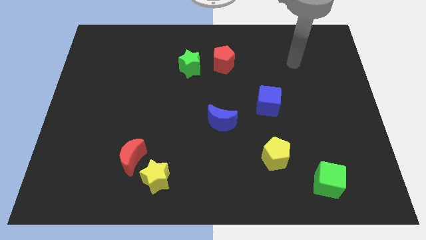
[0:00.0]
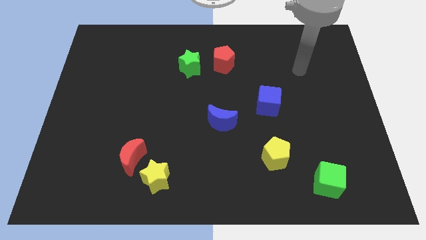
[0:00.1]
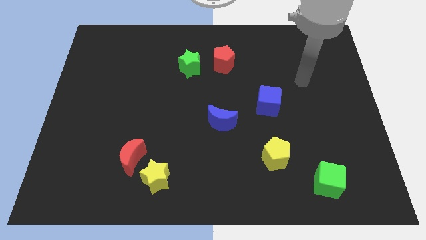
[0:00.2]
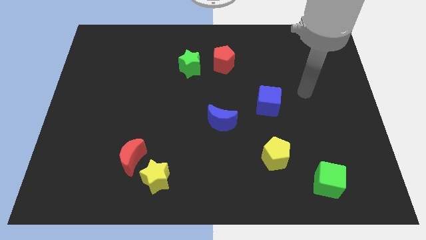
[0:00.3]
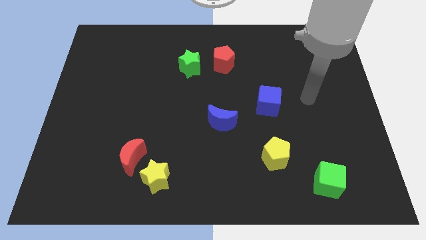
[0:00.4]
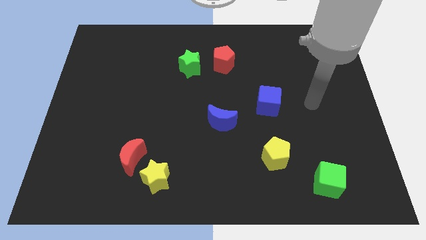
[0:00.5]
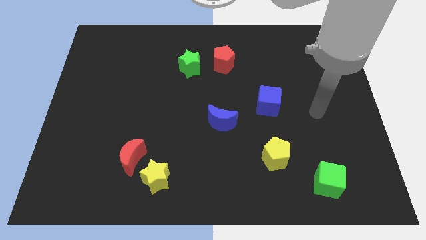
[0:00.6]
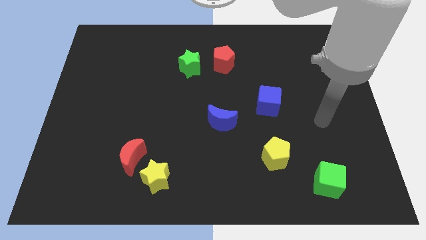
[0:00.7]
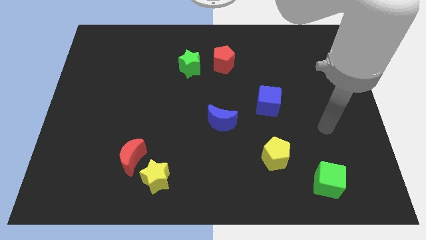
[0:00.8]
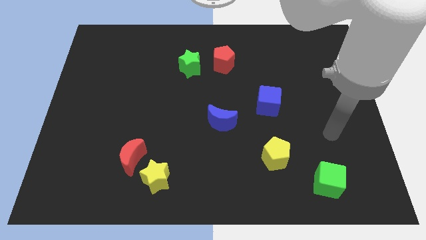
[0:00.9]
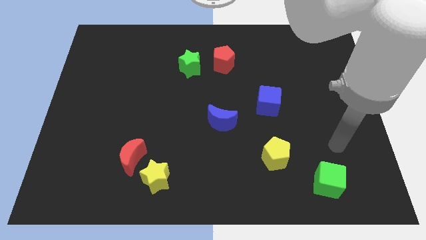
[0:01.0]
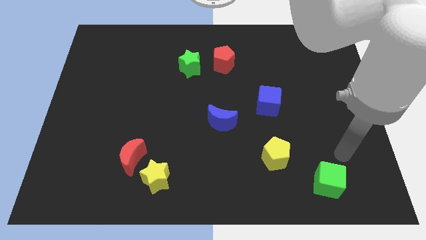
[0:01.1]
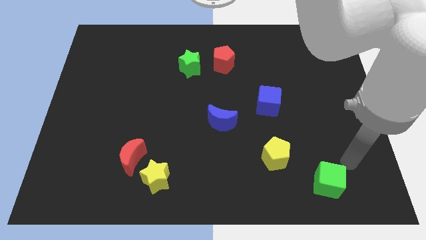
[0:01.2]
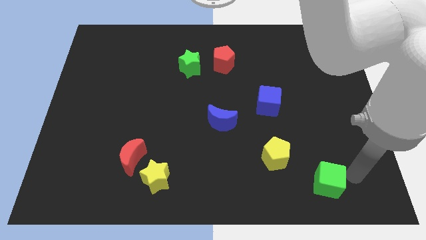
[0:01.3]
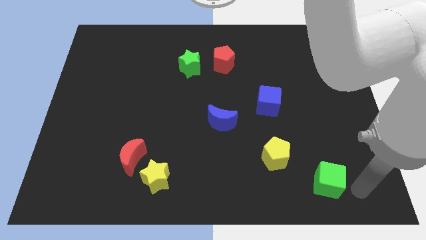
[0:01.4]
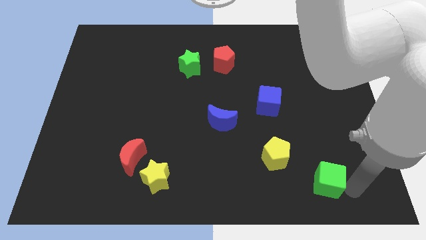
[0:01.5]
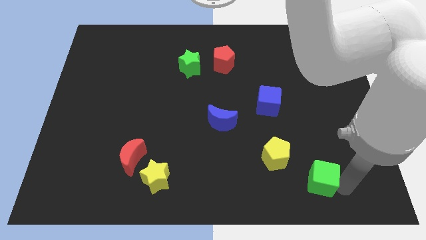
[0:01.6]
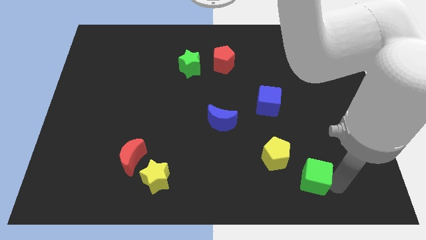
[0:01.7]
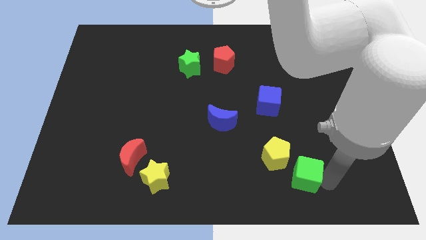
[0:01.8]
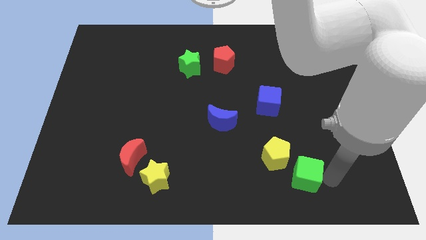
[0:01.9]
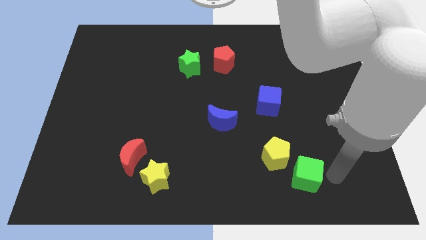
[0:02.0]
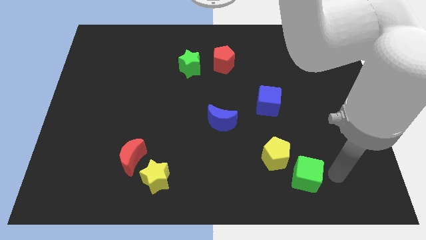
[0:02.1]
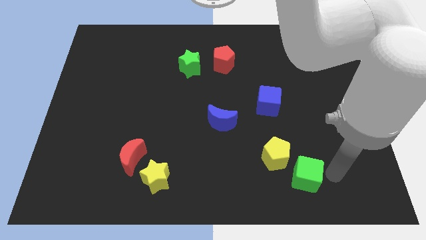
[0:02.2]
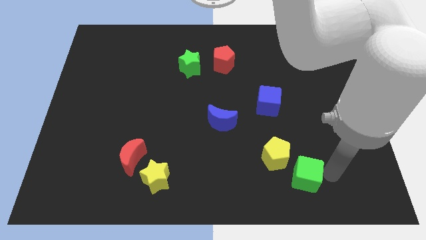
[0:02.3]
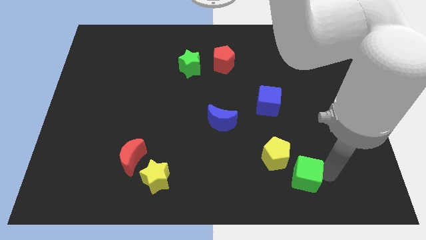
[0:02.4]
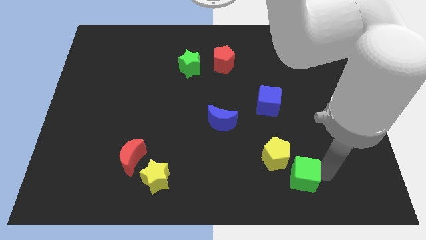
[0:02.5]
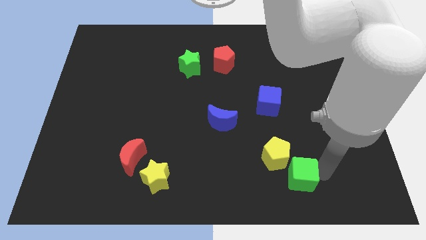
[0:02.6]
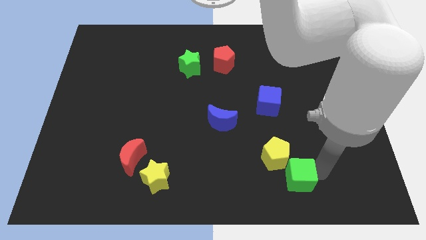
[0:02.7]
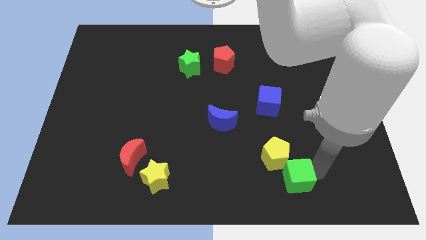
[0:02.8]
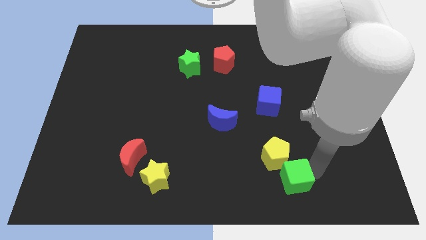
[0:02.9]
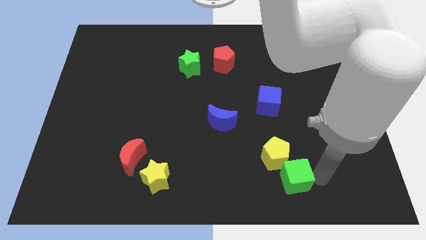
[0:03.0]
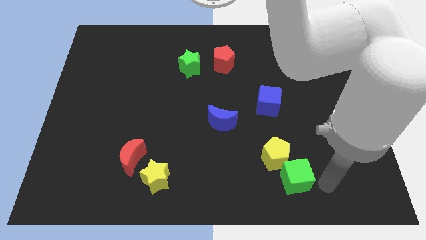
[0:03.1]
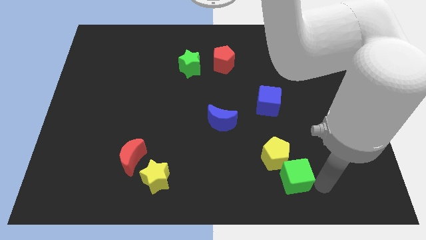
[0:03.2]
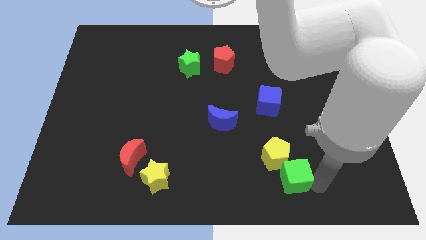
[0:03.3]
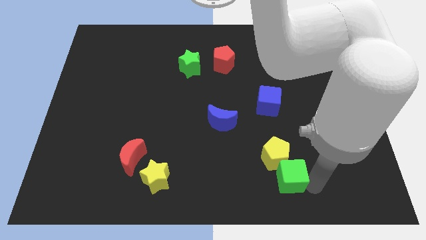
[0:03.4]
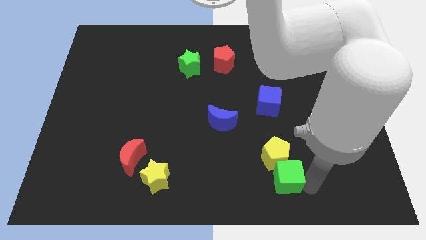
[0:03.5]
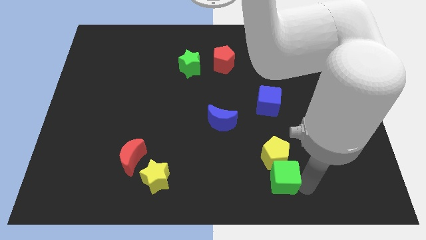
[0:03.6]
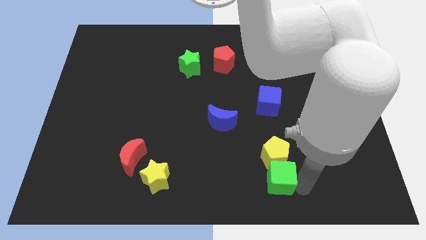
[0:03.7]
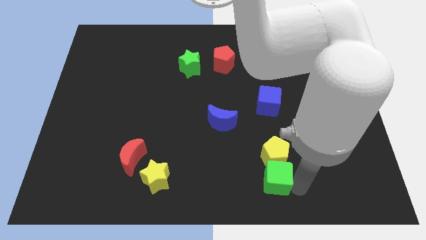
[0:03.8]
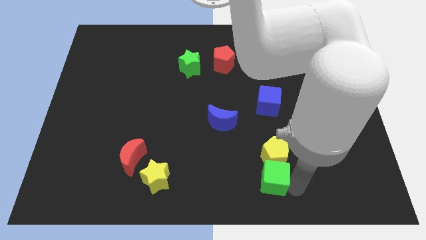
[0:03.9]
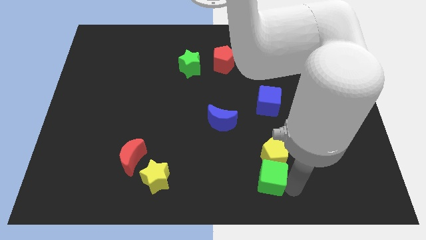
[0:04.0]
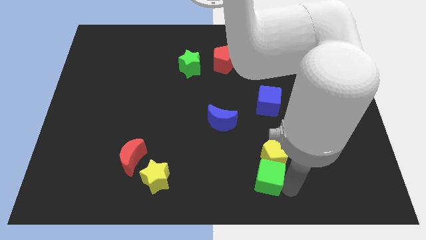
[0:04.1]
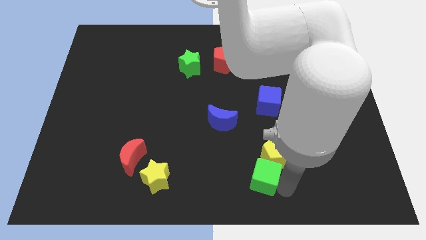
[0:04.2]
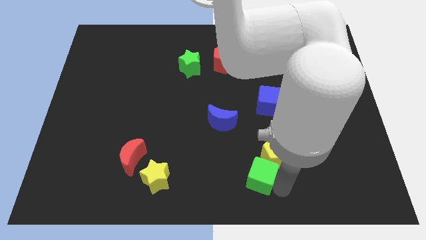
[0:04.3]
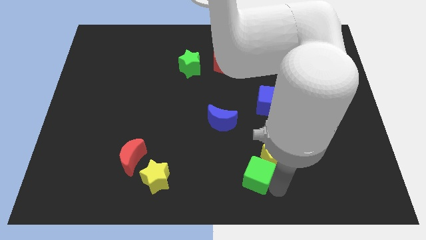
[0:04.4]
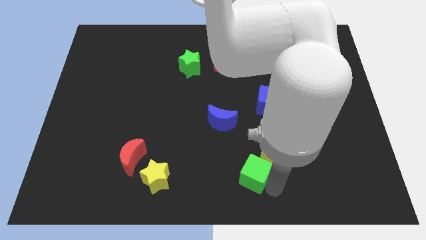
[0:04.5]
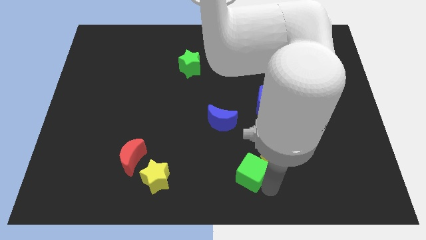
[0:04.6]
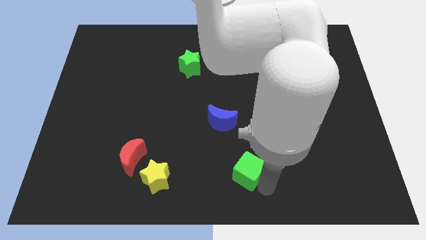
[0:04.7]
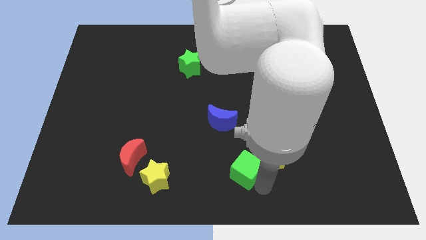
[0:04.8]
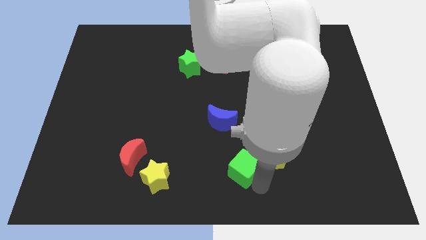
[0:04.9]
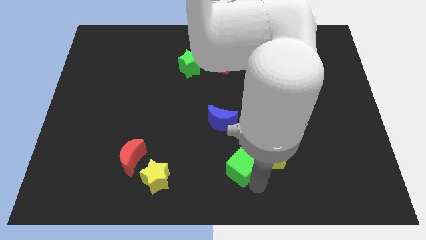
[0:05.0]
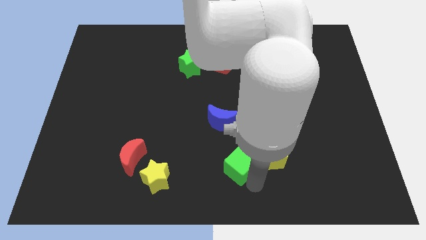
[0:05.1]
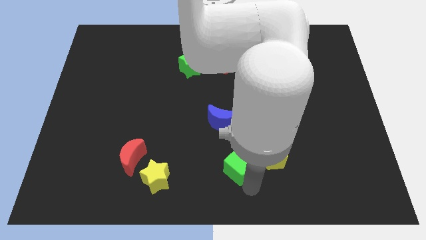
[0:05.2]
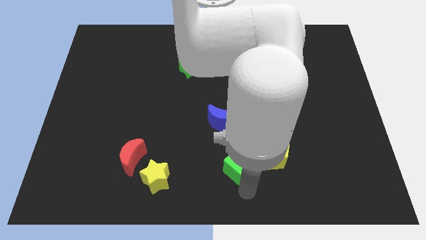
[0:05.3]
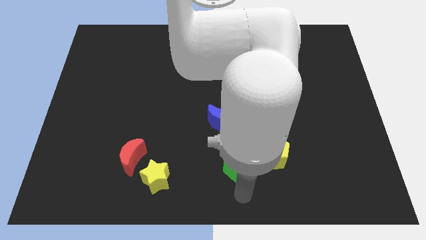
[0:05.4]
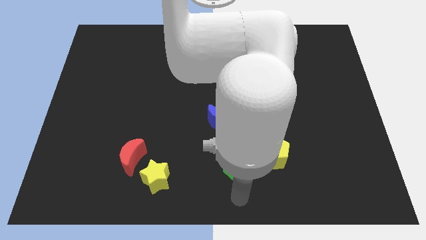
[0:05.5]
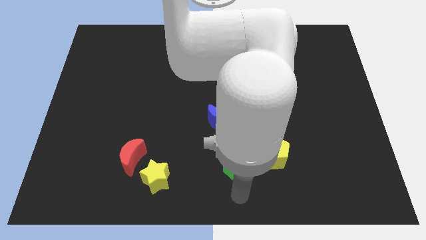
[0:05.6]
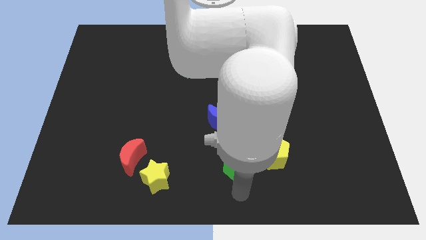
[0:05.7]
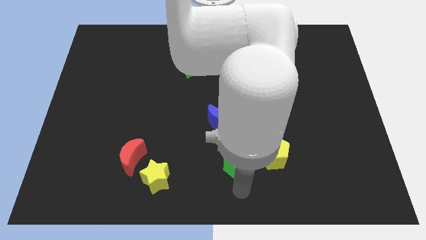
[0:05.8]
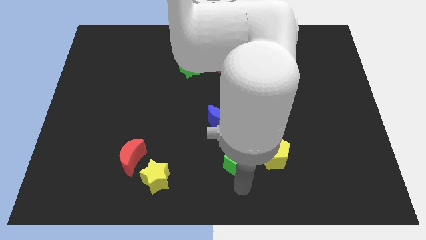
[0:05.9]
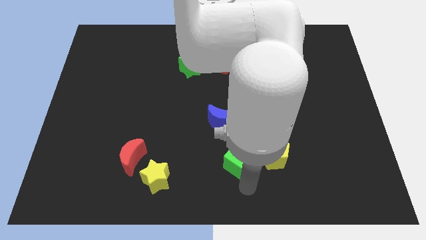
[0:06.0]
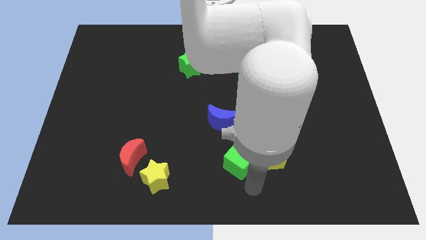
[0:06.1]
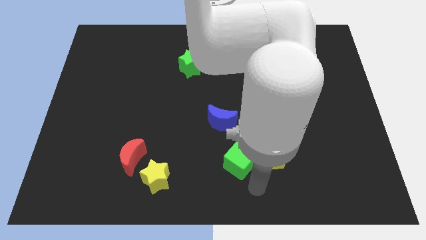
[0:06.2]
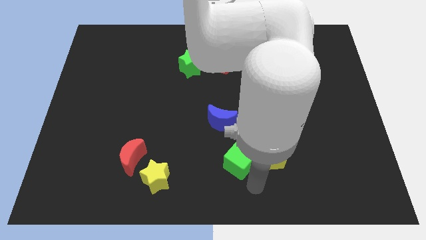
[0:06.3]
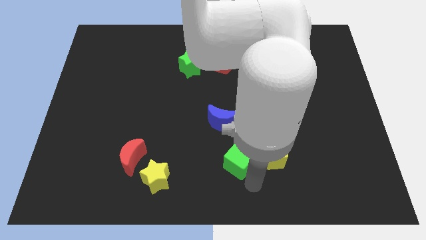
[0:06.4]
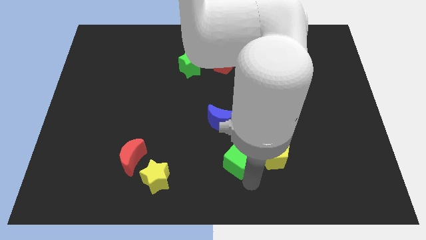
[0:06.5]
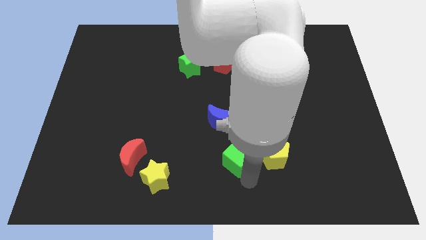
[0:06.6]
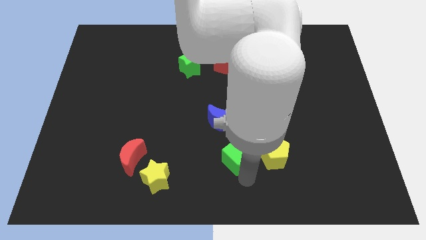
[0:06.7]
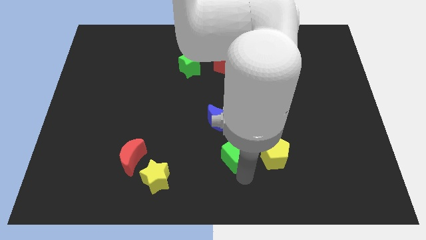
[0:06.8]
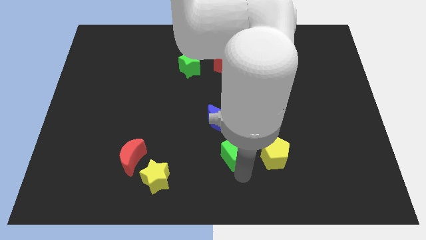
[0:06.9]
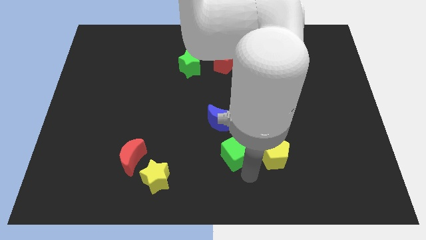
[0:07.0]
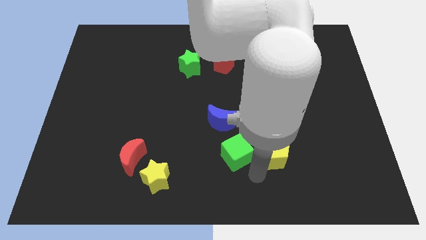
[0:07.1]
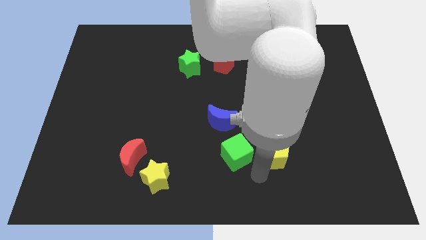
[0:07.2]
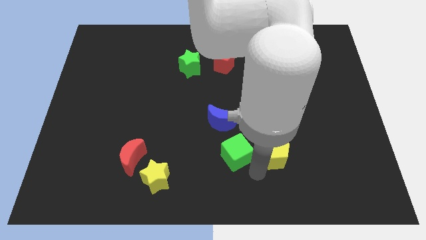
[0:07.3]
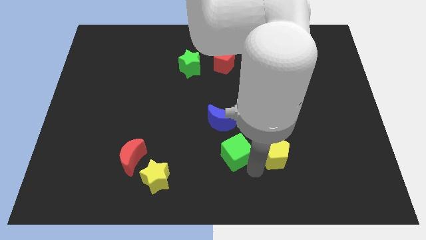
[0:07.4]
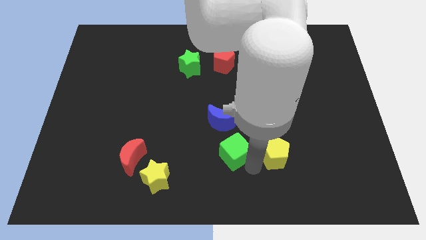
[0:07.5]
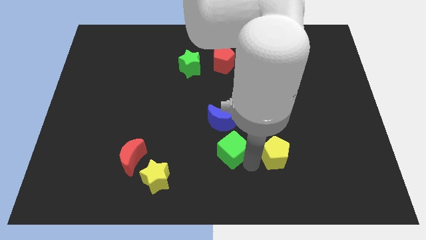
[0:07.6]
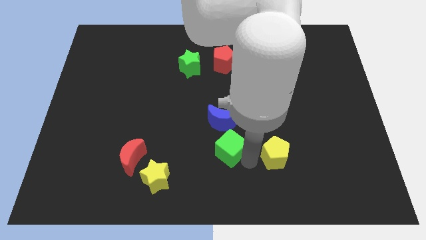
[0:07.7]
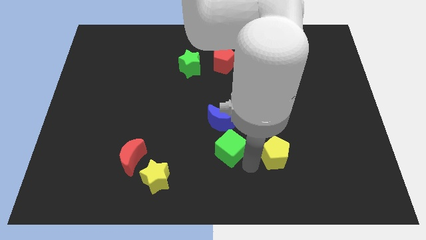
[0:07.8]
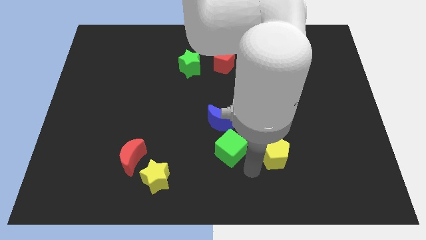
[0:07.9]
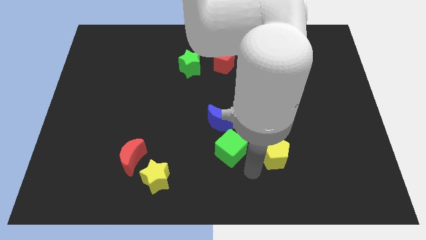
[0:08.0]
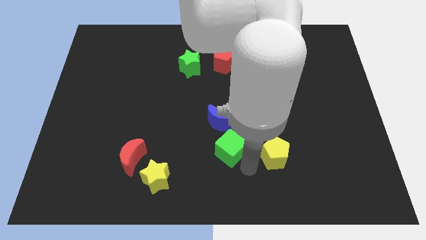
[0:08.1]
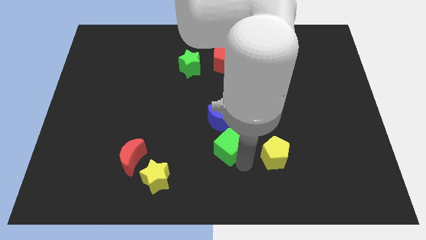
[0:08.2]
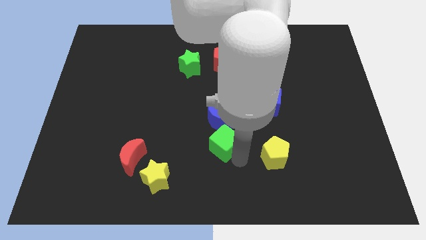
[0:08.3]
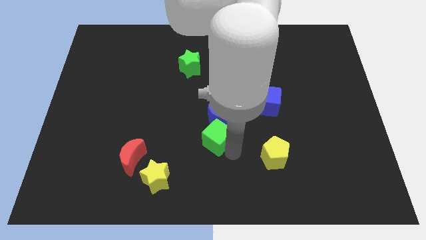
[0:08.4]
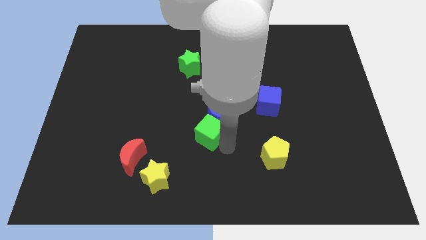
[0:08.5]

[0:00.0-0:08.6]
push the green cube to the left side of the blue moon
